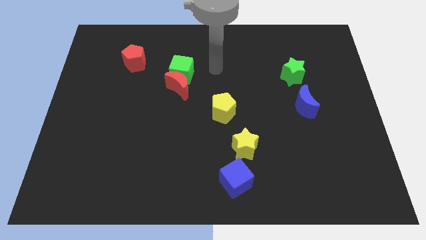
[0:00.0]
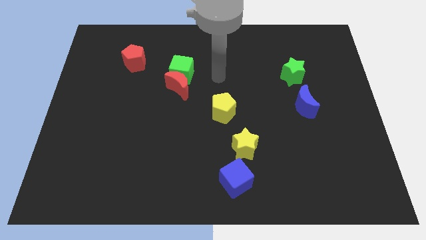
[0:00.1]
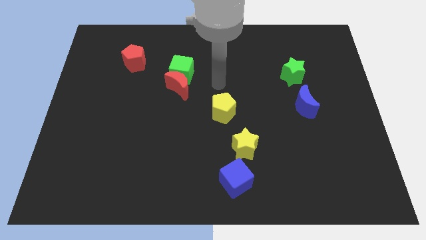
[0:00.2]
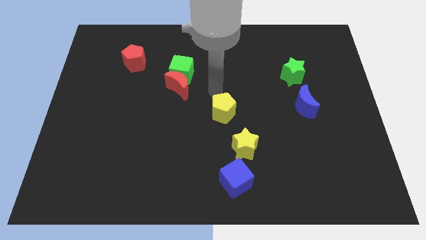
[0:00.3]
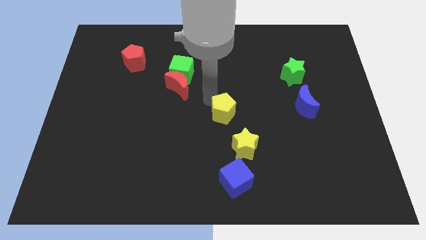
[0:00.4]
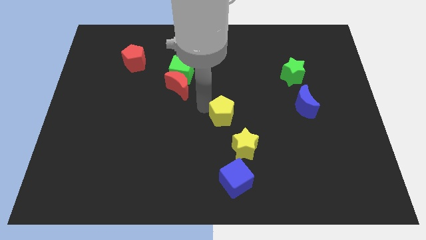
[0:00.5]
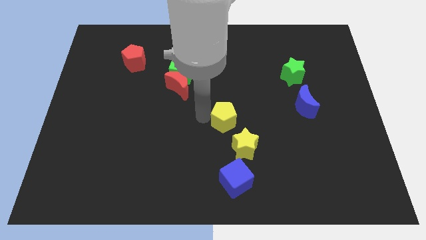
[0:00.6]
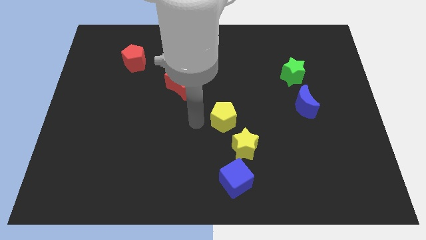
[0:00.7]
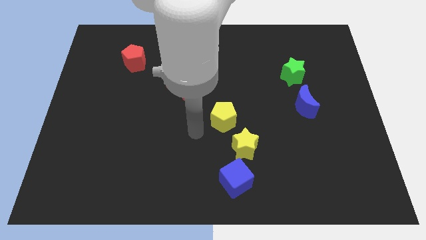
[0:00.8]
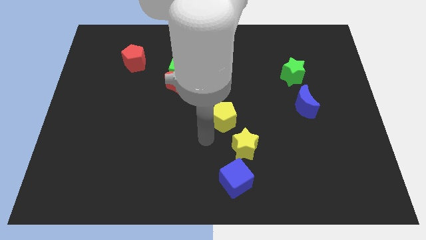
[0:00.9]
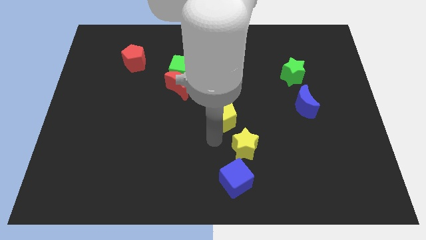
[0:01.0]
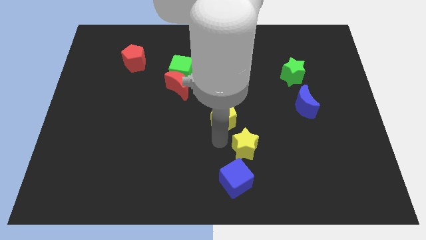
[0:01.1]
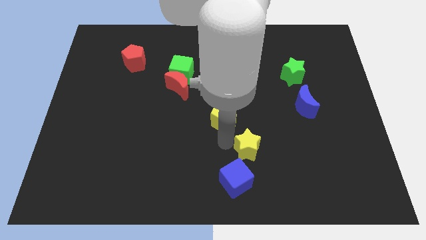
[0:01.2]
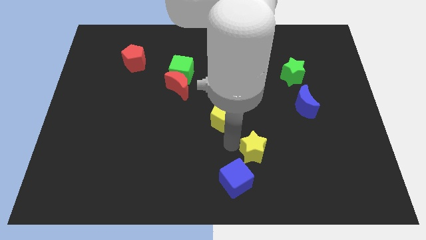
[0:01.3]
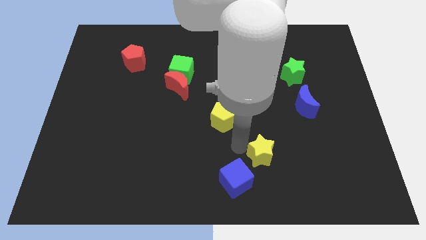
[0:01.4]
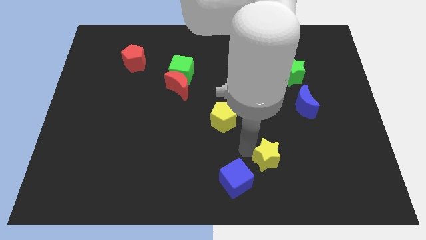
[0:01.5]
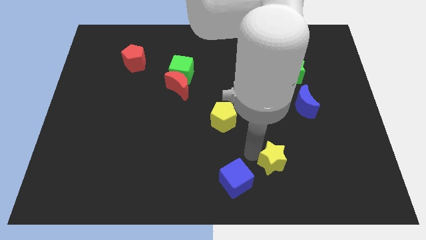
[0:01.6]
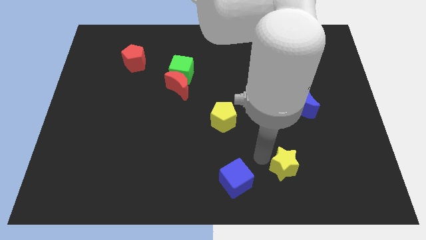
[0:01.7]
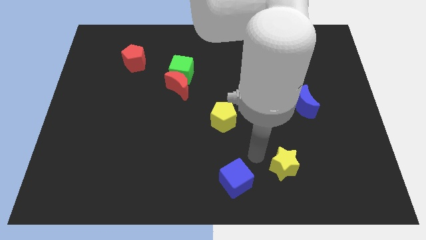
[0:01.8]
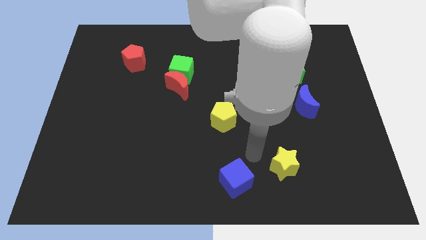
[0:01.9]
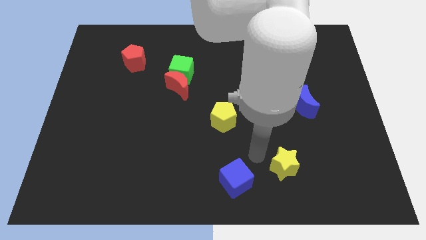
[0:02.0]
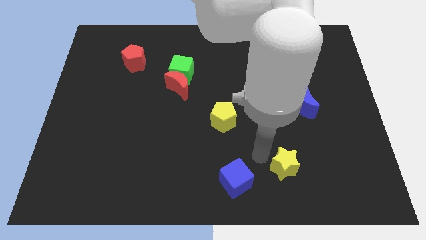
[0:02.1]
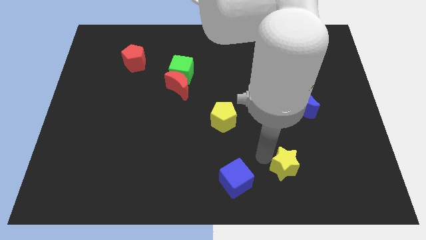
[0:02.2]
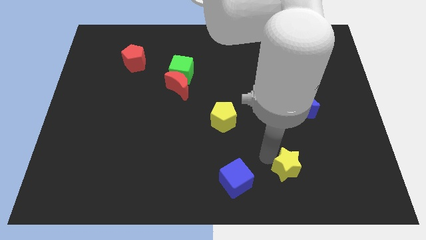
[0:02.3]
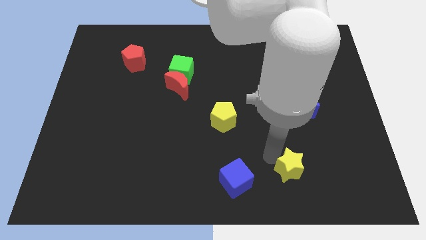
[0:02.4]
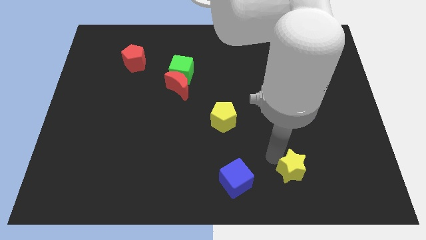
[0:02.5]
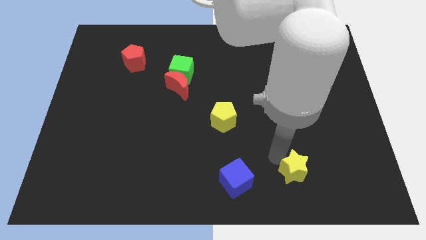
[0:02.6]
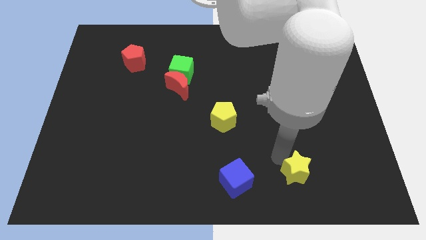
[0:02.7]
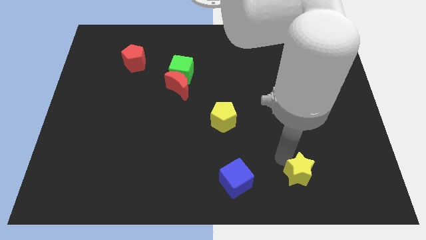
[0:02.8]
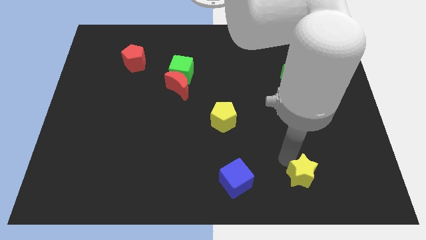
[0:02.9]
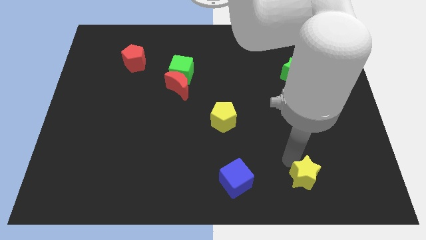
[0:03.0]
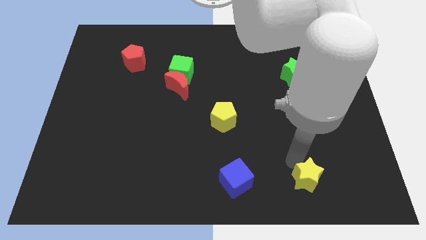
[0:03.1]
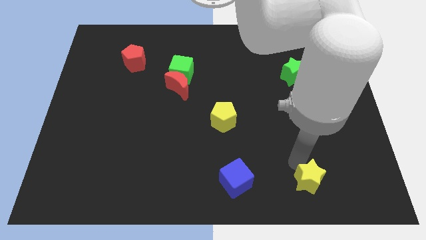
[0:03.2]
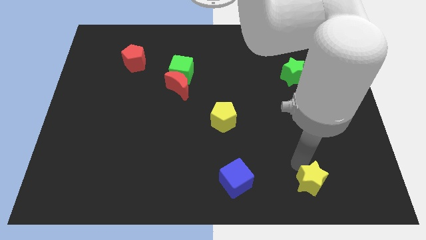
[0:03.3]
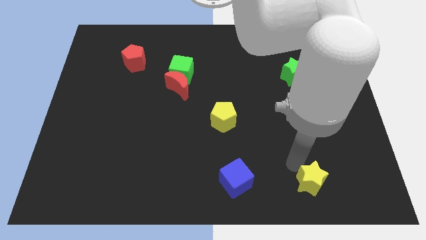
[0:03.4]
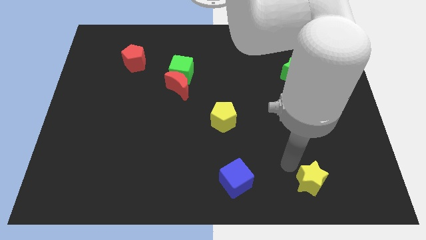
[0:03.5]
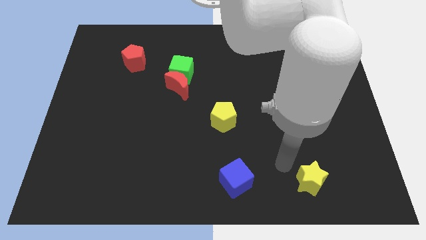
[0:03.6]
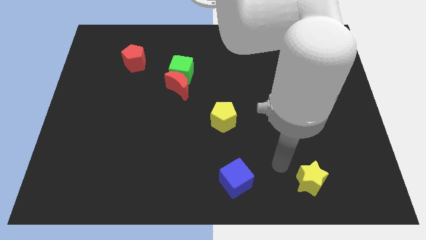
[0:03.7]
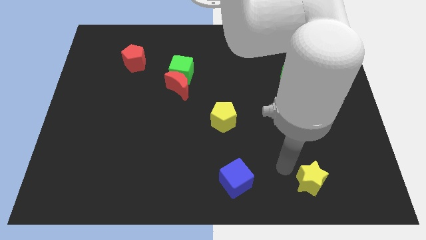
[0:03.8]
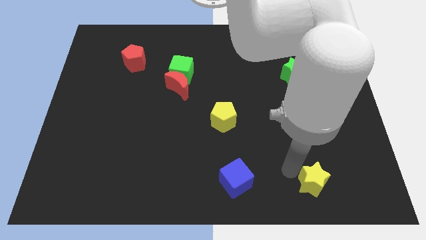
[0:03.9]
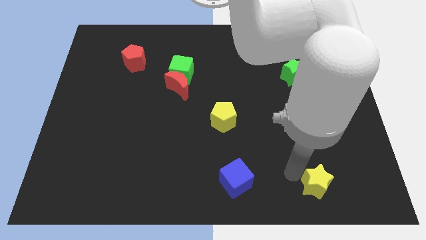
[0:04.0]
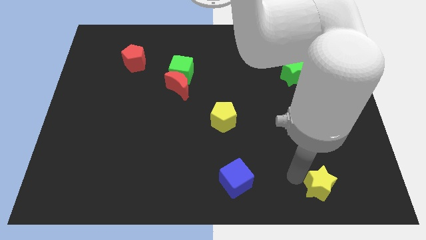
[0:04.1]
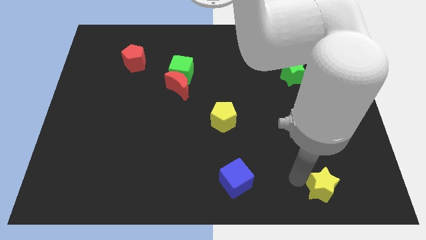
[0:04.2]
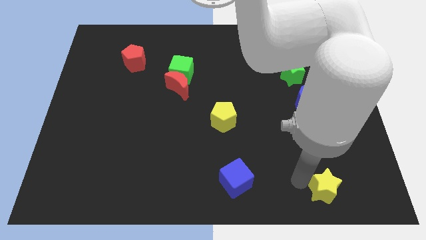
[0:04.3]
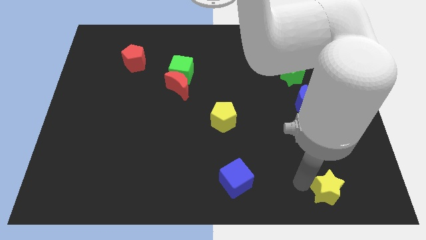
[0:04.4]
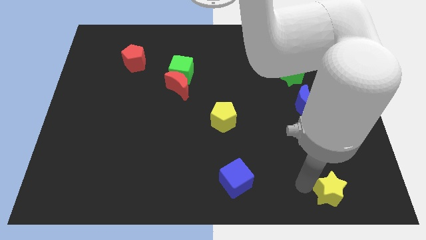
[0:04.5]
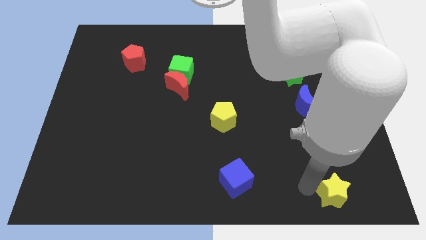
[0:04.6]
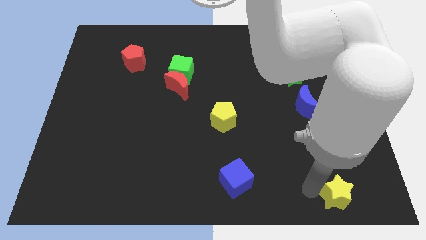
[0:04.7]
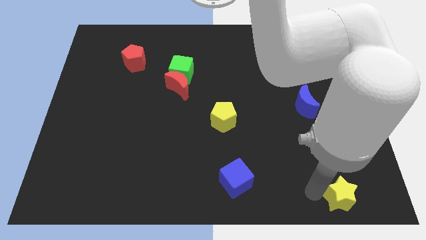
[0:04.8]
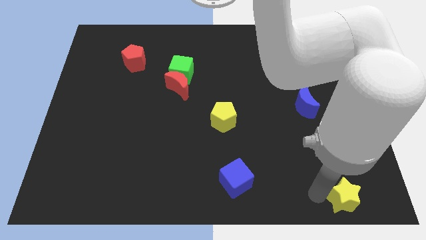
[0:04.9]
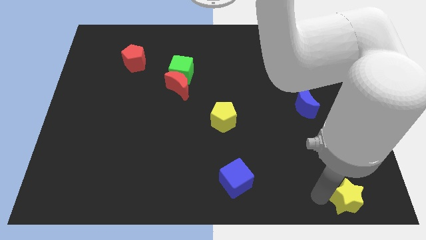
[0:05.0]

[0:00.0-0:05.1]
put the yellow star to the bottom right corner
